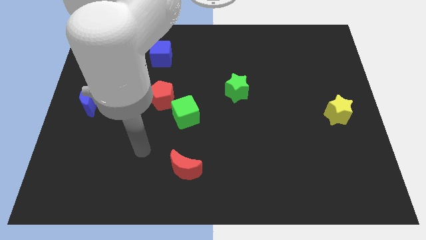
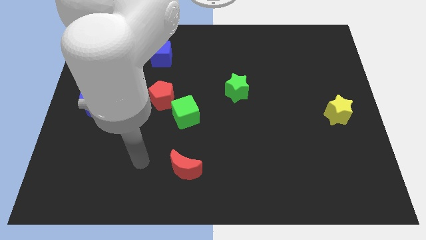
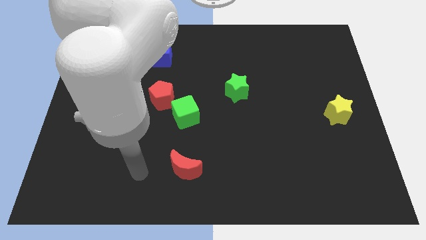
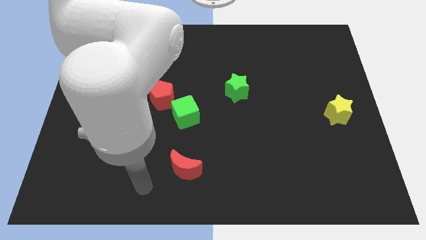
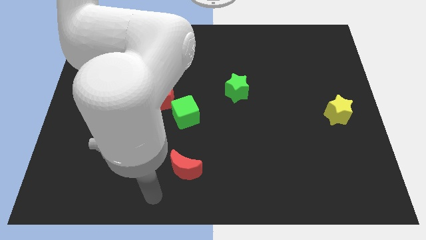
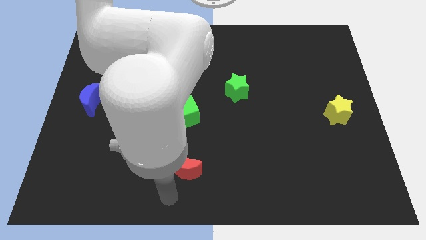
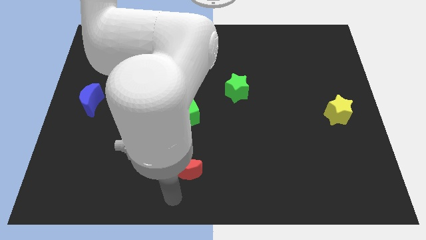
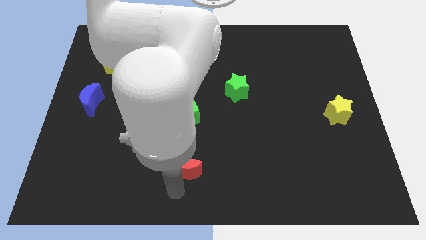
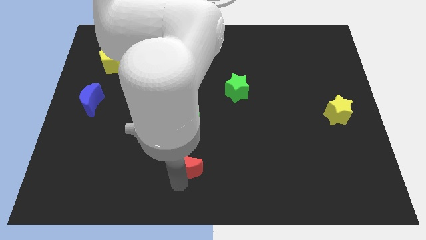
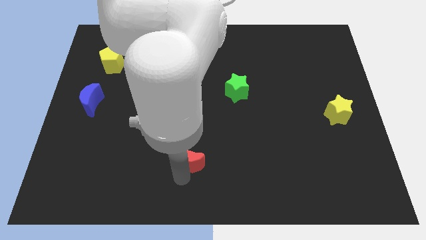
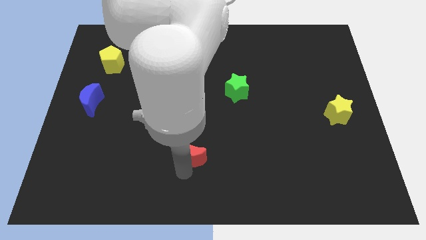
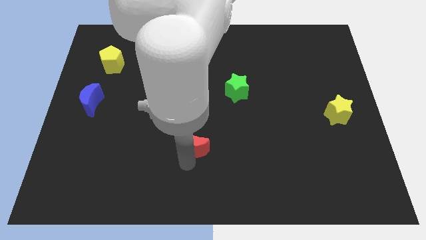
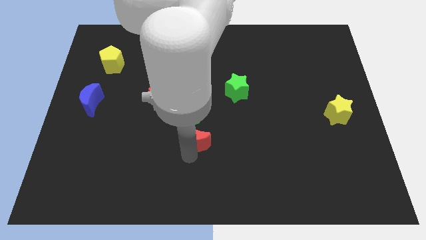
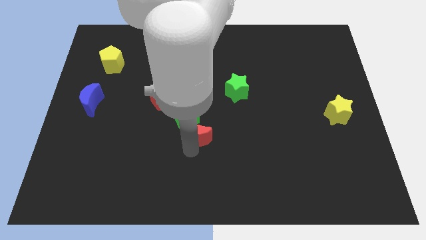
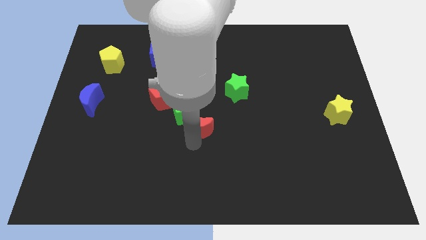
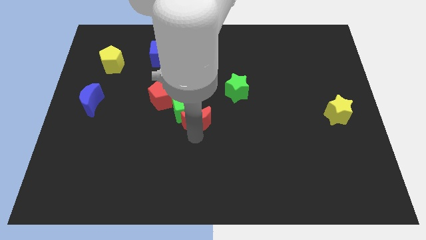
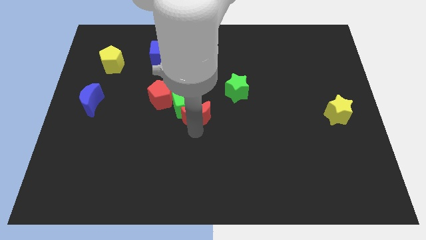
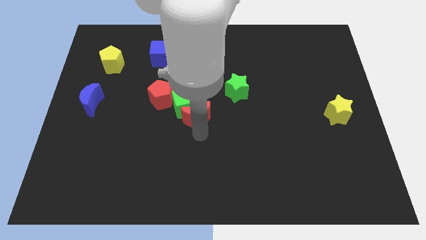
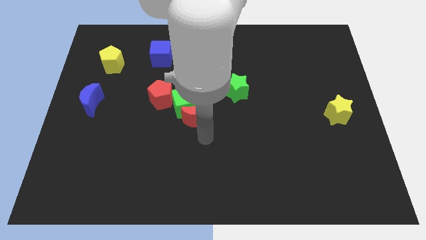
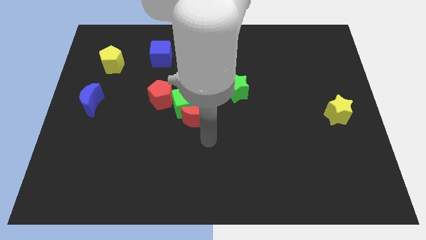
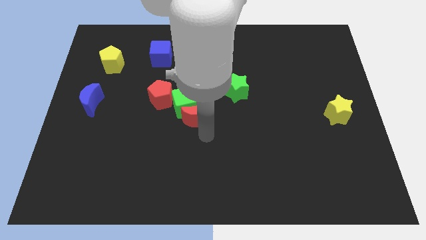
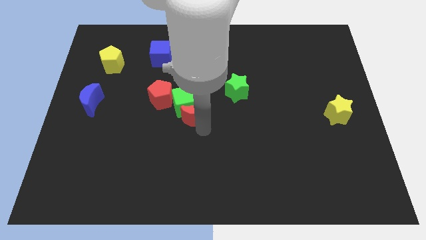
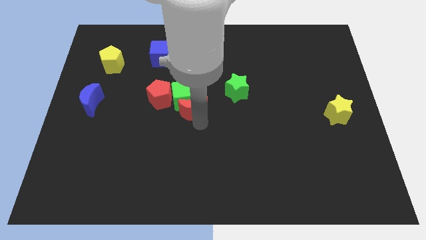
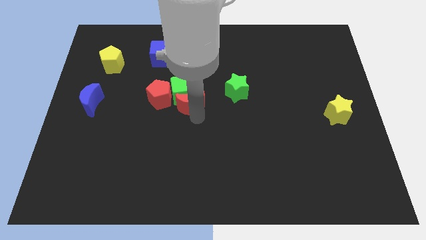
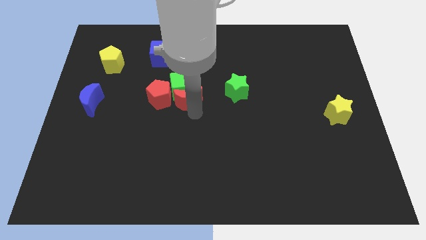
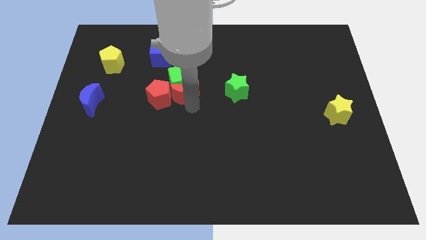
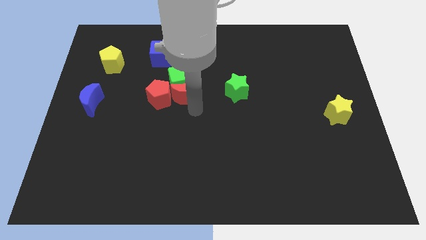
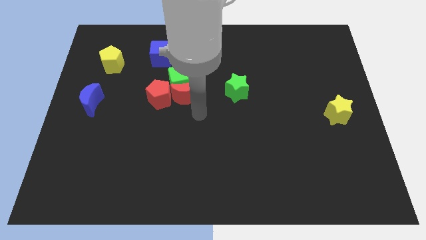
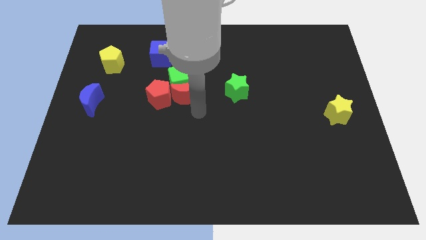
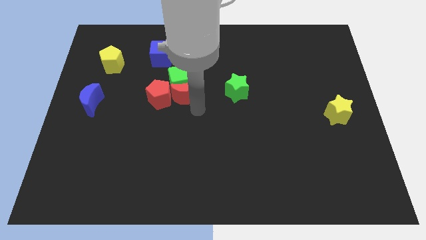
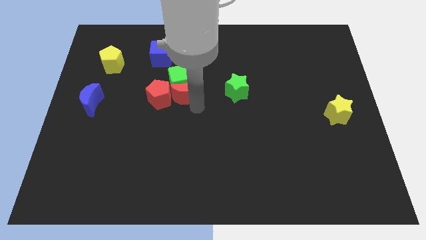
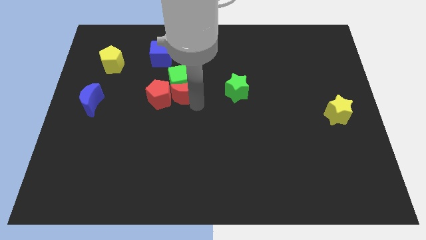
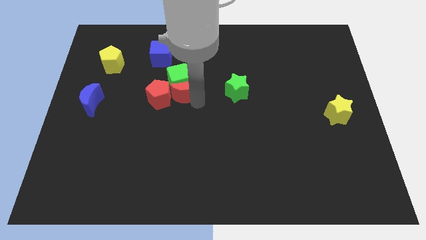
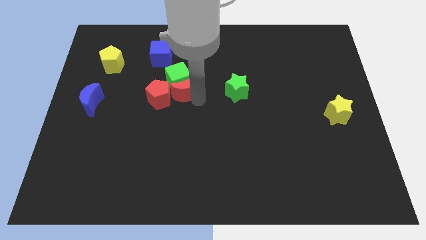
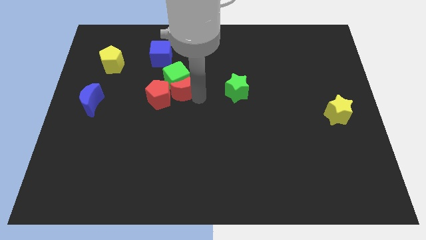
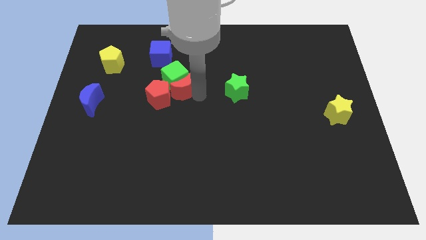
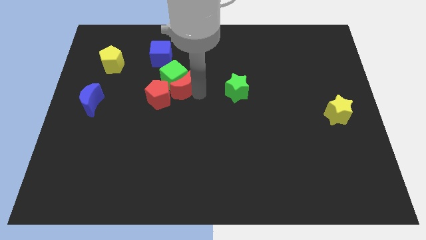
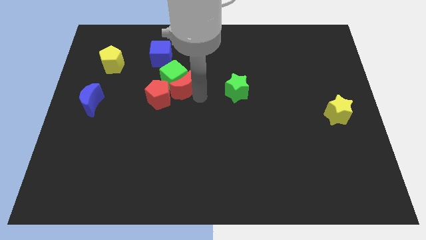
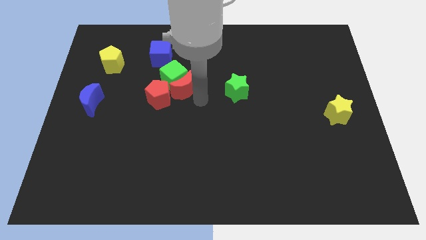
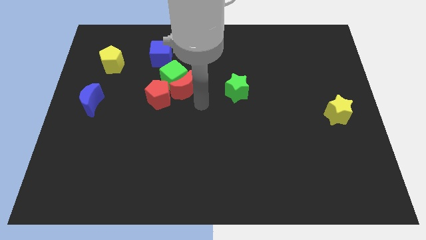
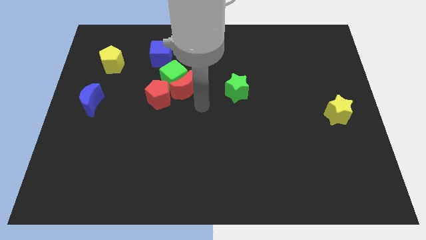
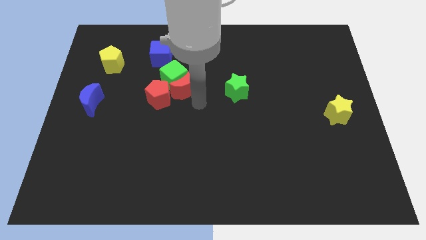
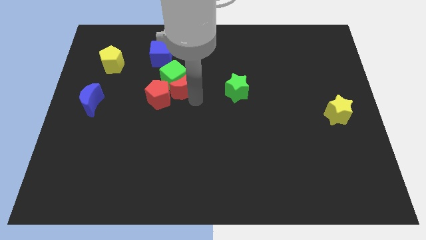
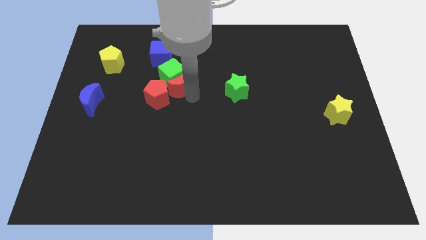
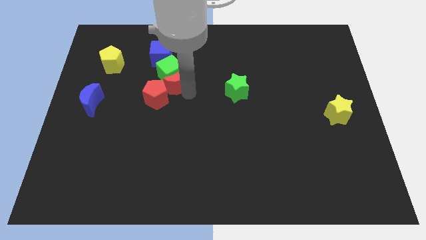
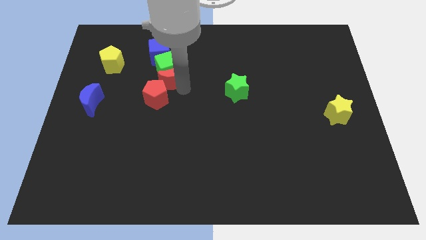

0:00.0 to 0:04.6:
move the red moon above the red pentagon

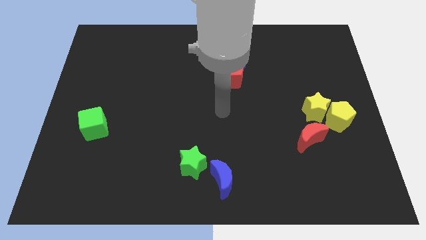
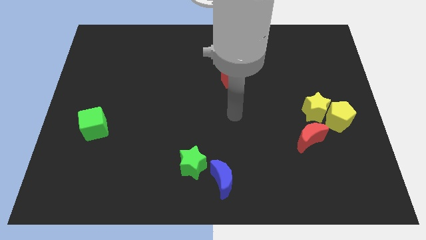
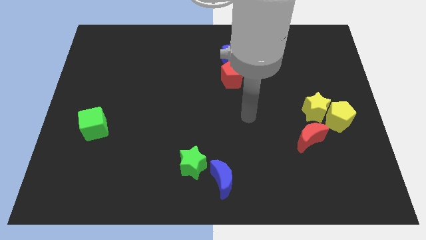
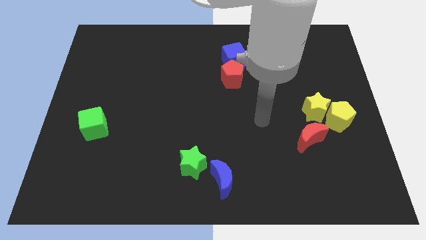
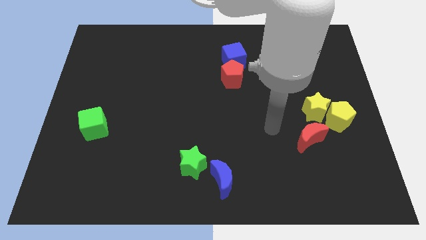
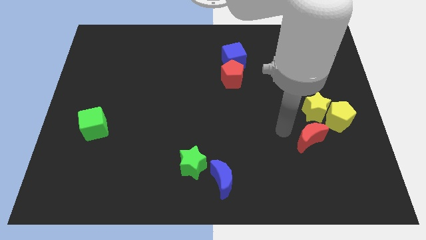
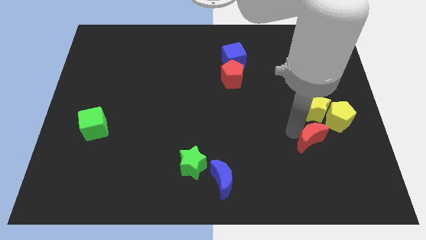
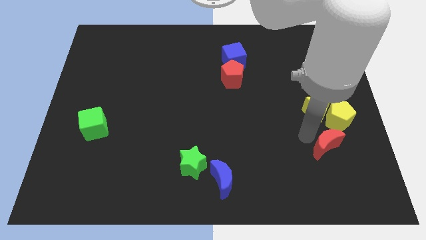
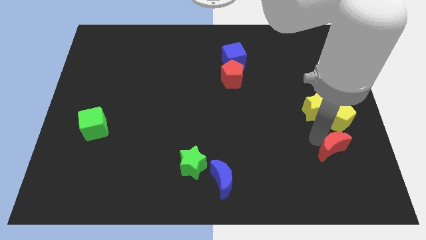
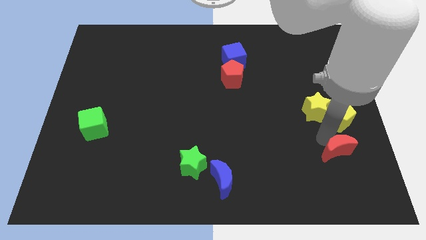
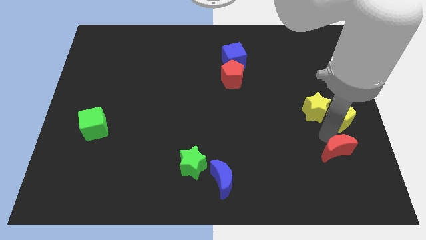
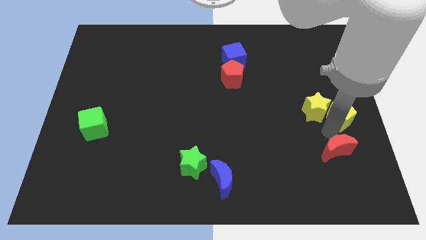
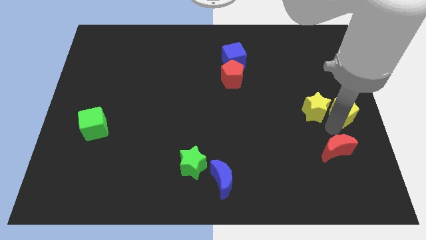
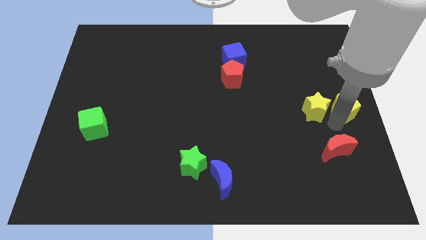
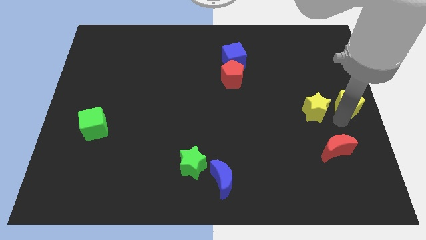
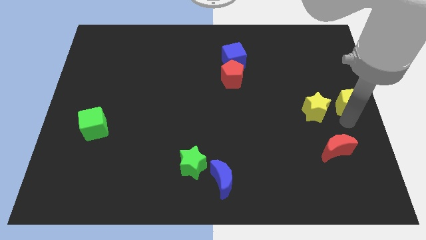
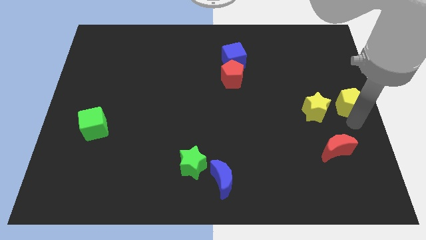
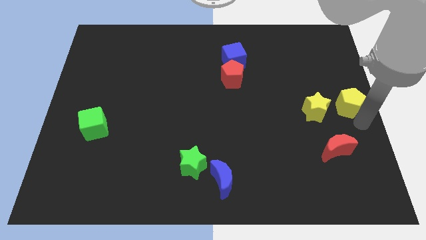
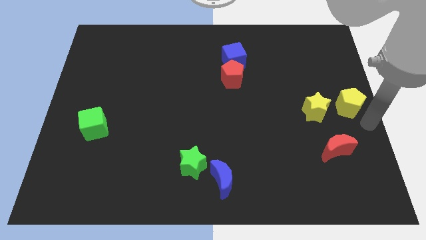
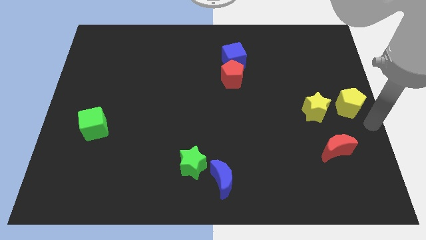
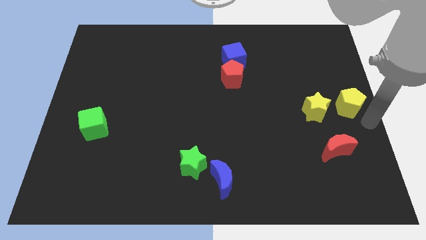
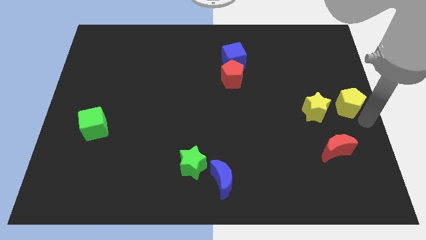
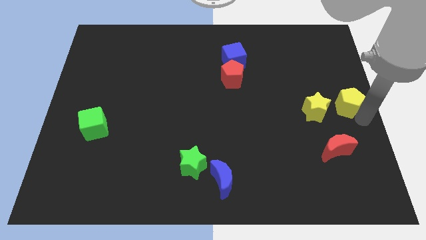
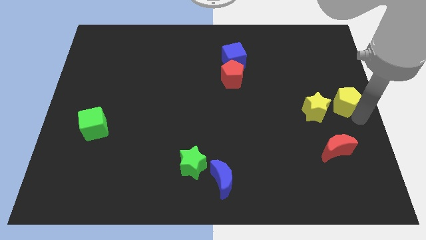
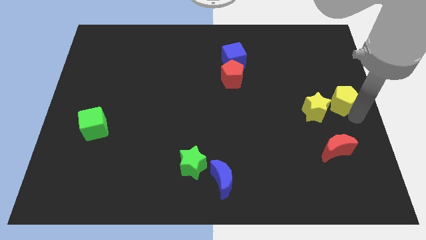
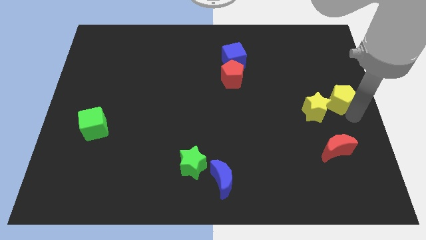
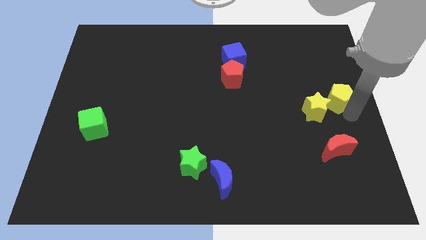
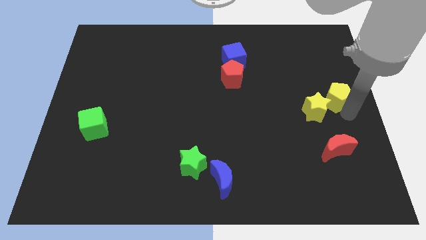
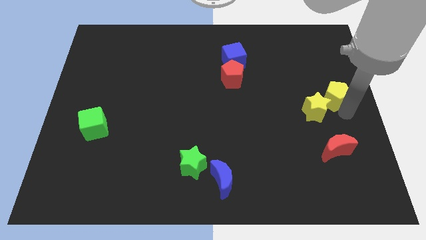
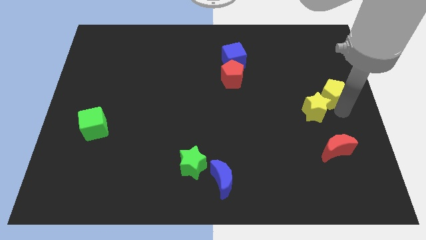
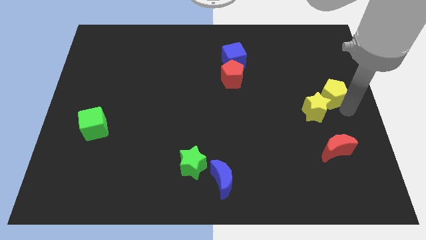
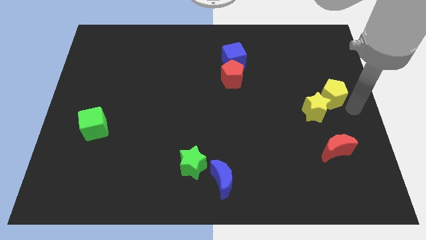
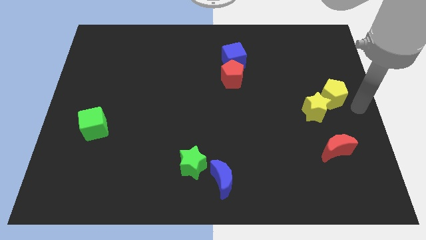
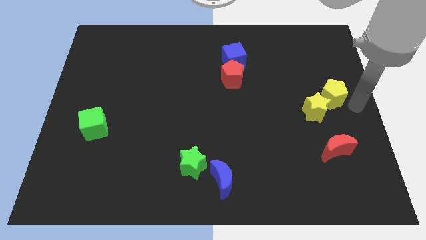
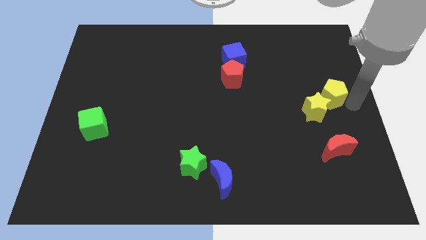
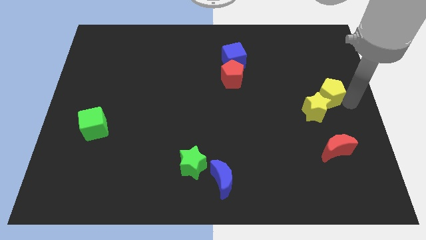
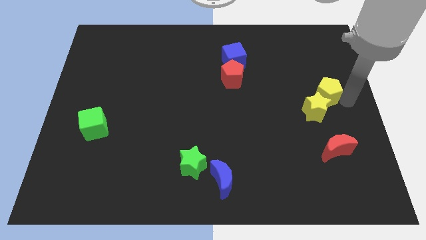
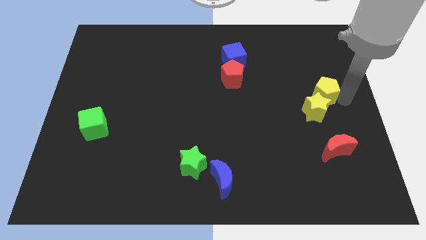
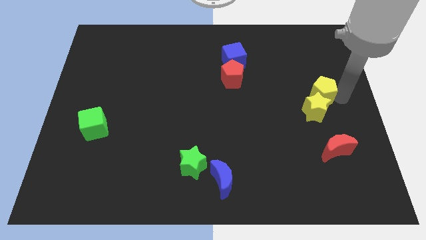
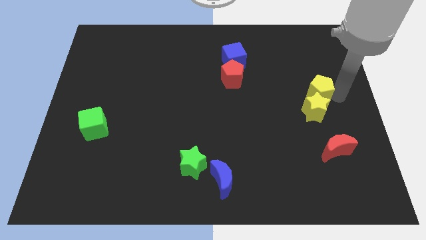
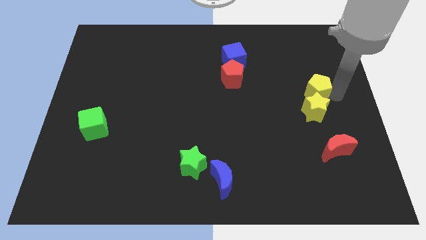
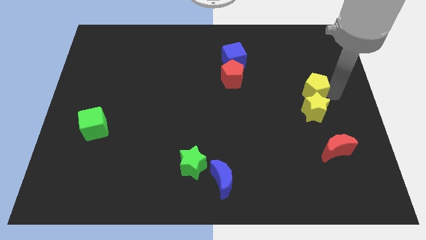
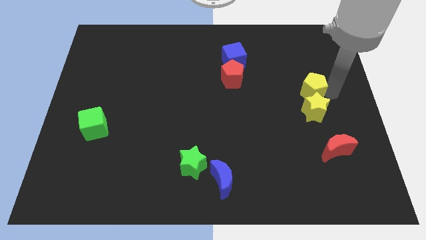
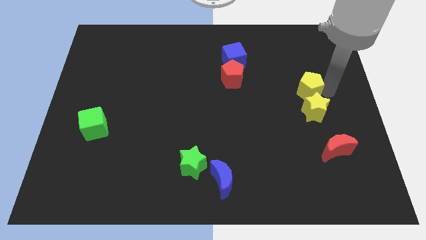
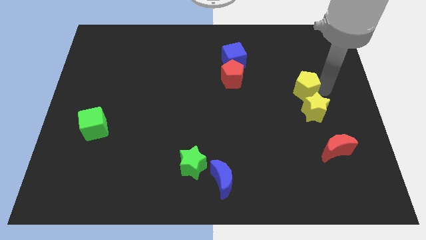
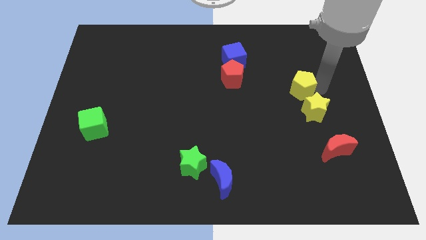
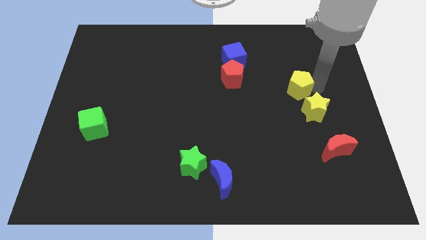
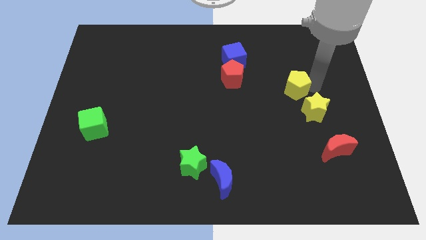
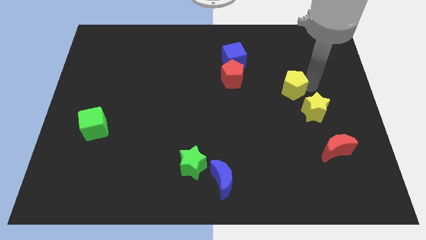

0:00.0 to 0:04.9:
push the yellow pentagon to the right side of the red pentagon
